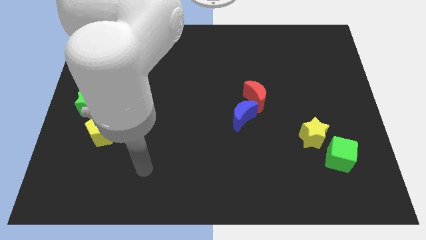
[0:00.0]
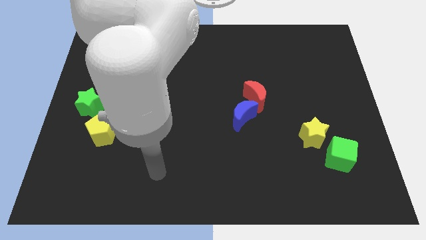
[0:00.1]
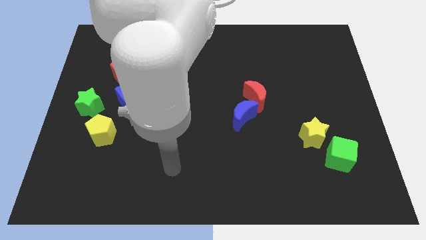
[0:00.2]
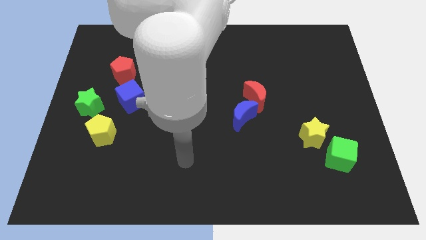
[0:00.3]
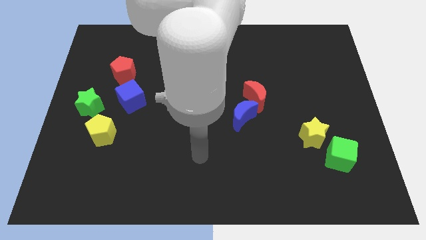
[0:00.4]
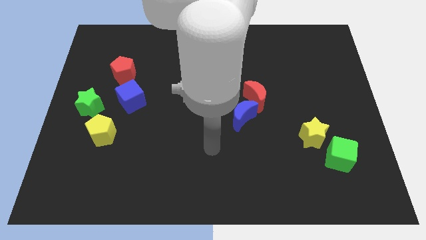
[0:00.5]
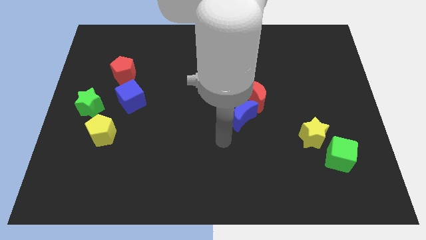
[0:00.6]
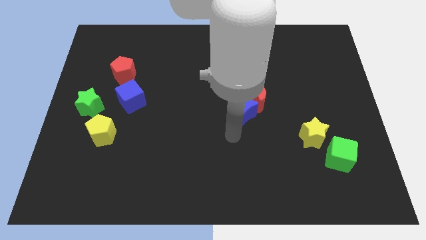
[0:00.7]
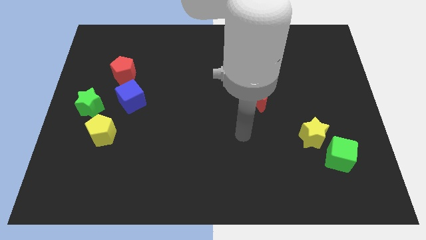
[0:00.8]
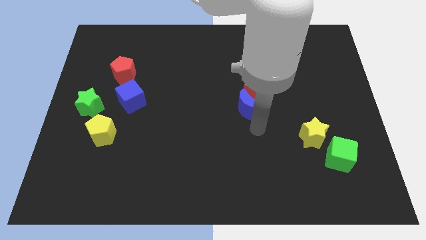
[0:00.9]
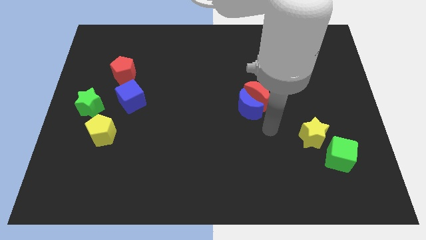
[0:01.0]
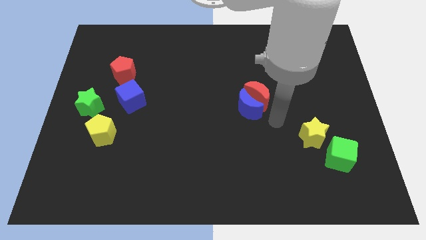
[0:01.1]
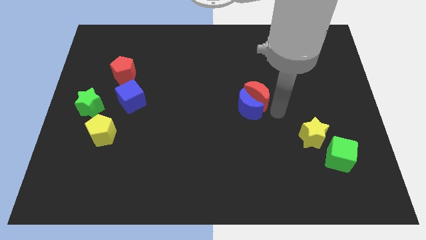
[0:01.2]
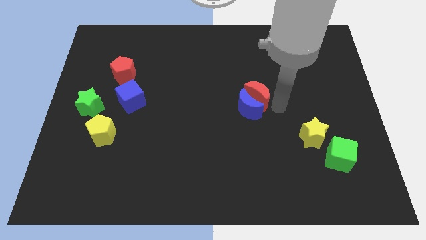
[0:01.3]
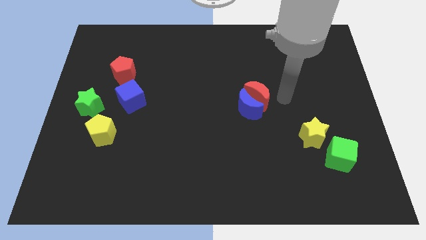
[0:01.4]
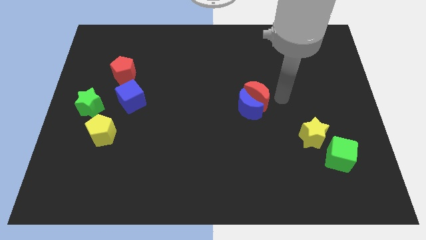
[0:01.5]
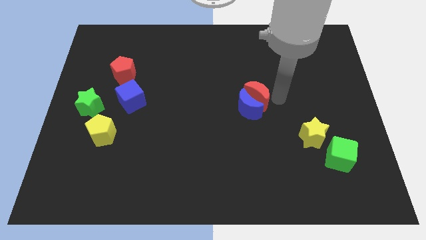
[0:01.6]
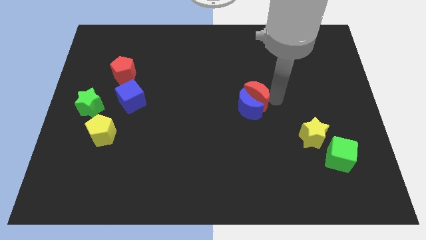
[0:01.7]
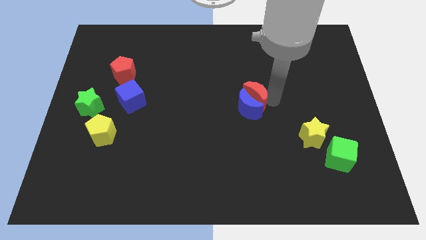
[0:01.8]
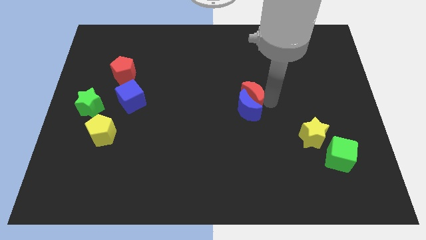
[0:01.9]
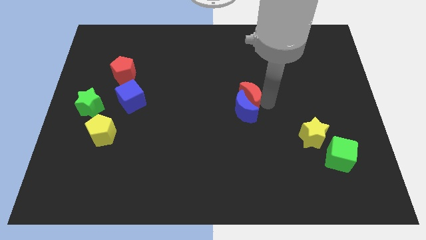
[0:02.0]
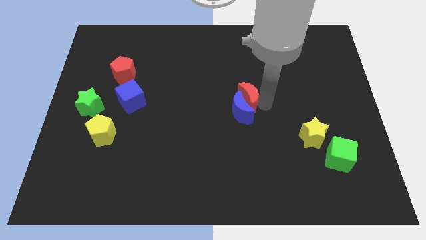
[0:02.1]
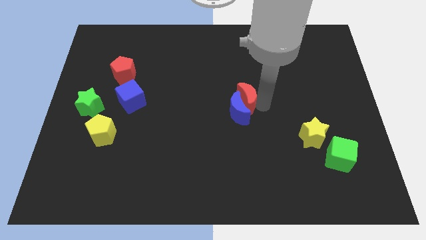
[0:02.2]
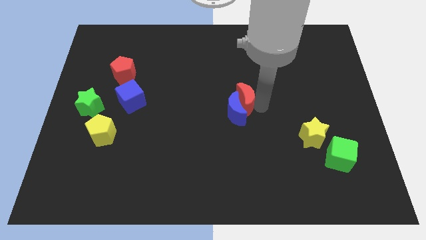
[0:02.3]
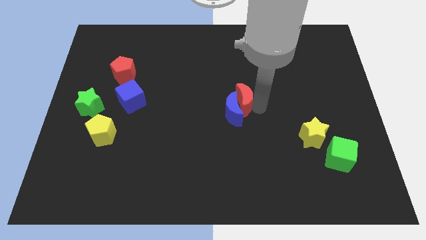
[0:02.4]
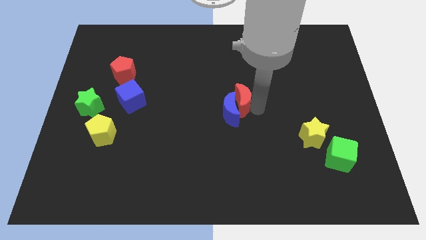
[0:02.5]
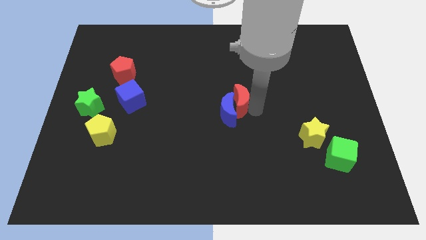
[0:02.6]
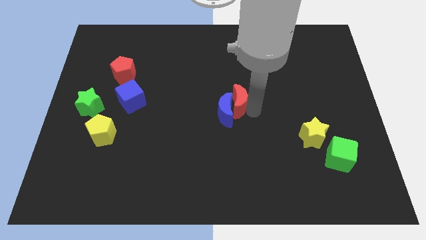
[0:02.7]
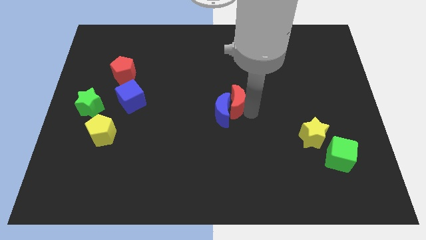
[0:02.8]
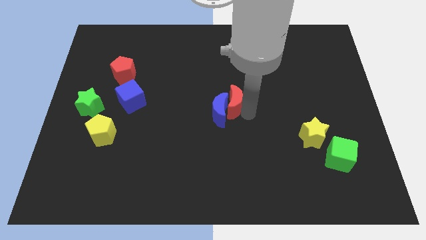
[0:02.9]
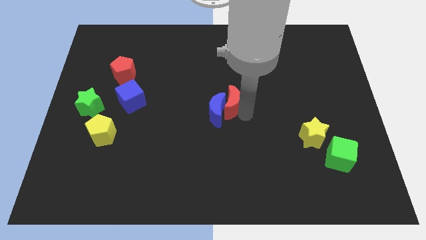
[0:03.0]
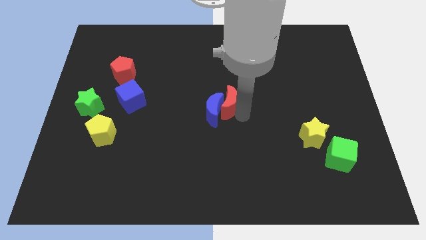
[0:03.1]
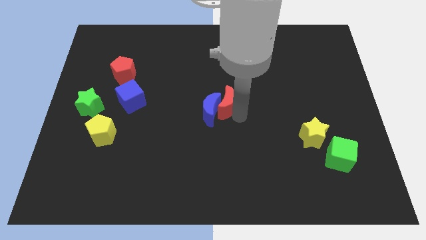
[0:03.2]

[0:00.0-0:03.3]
slide the red moon a little bit left

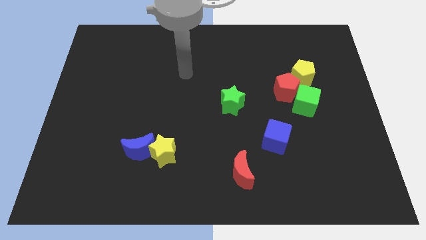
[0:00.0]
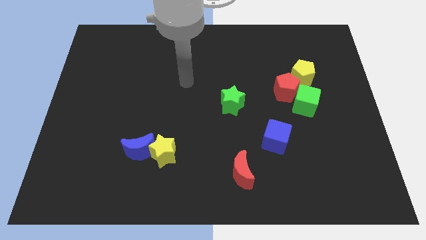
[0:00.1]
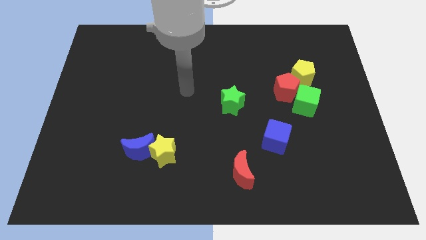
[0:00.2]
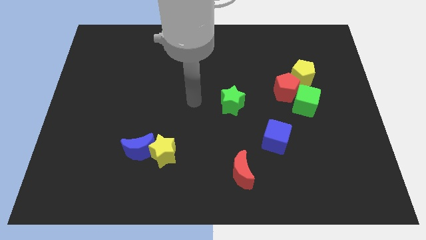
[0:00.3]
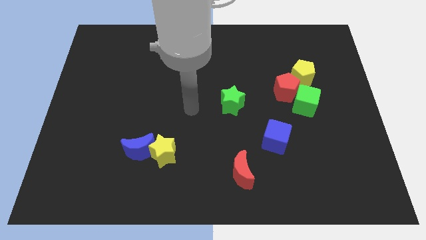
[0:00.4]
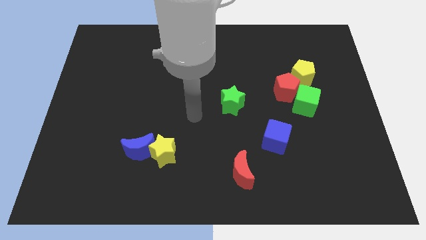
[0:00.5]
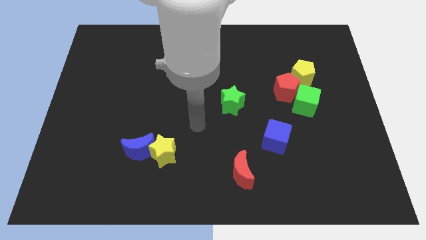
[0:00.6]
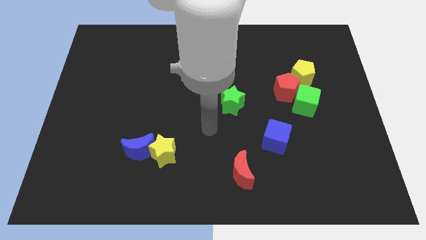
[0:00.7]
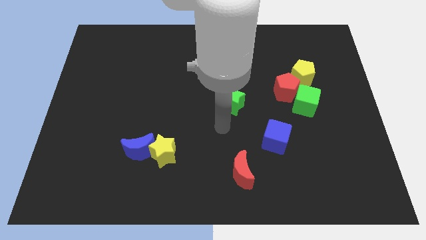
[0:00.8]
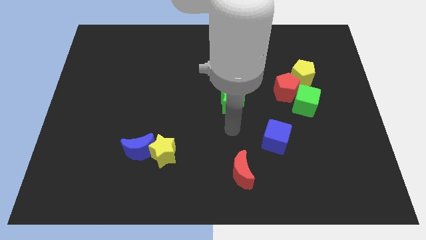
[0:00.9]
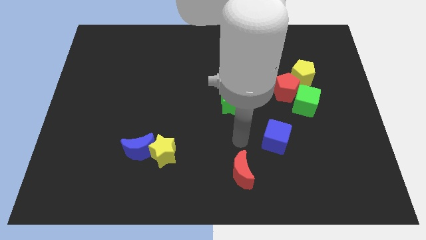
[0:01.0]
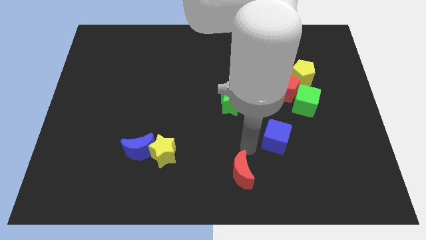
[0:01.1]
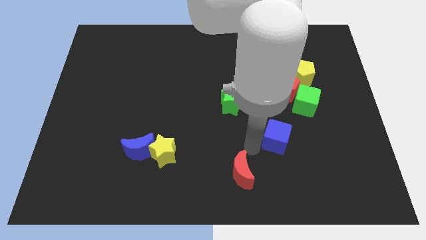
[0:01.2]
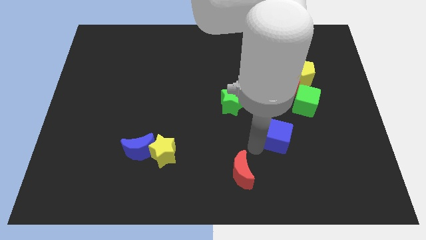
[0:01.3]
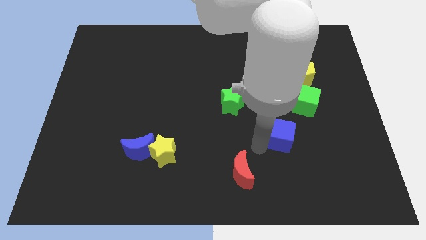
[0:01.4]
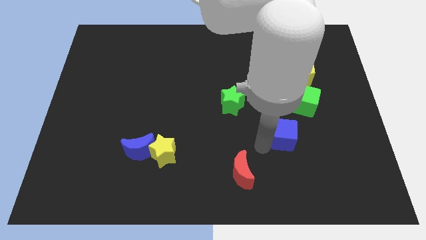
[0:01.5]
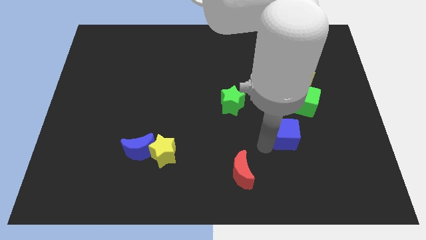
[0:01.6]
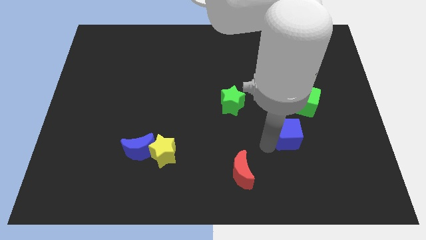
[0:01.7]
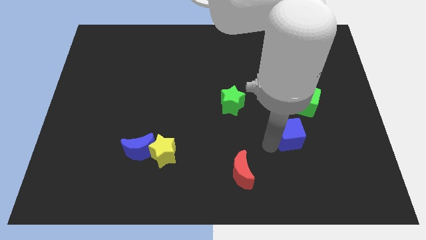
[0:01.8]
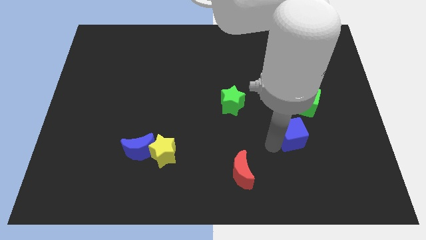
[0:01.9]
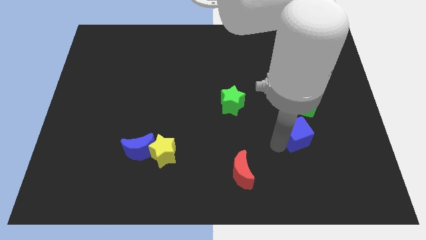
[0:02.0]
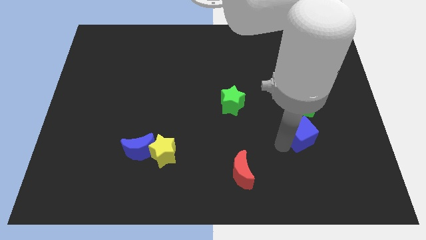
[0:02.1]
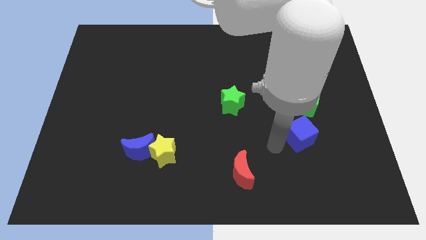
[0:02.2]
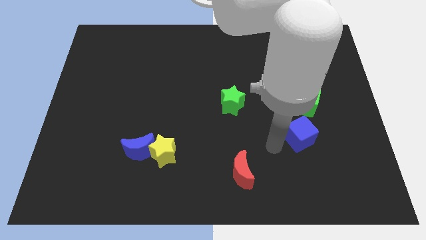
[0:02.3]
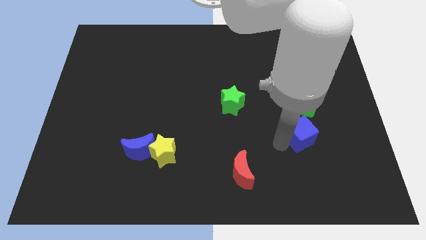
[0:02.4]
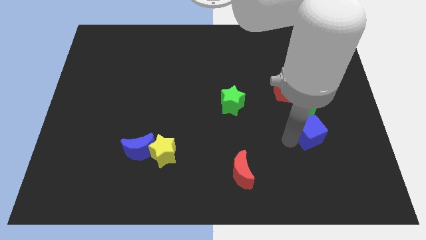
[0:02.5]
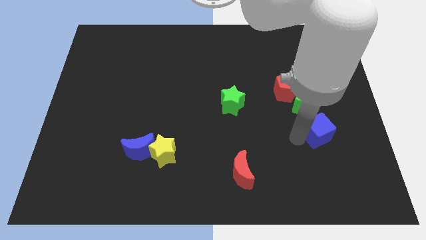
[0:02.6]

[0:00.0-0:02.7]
move the blue cube diagonally upwards and to the right somewhat

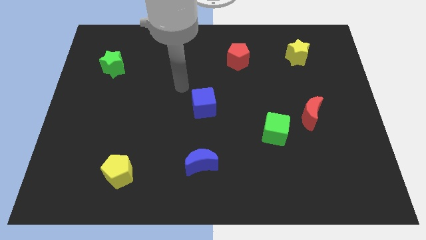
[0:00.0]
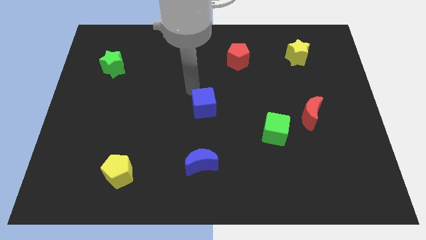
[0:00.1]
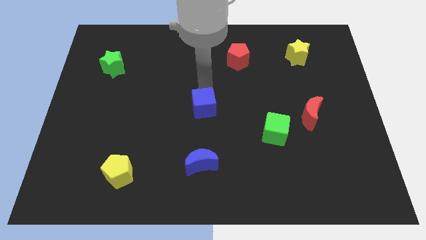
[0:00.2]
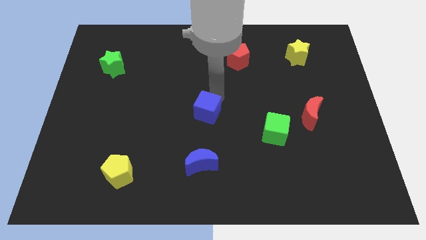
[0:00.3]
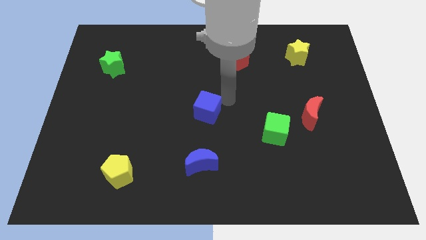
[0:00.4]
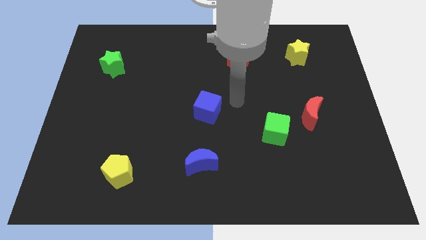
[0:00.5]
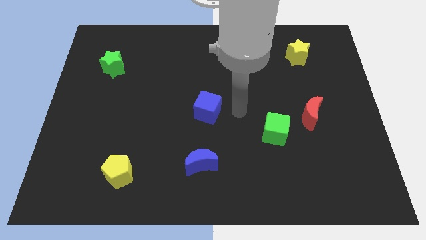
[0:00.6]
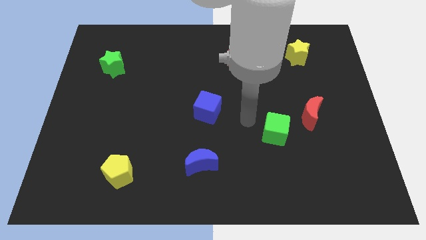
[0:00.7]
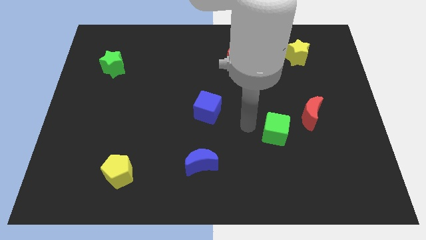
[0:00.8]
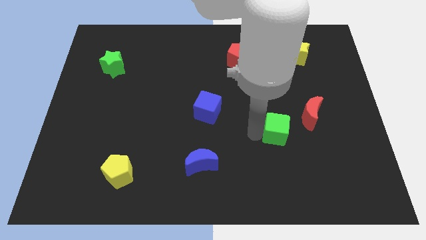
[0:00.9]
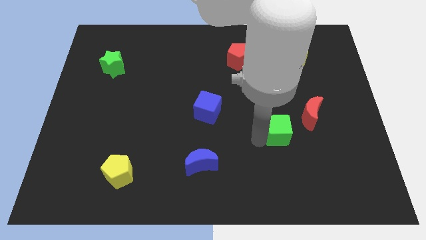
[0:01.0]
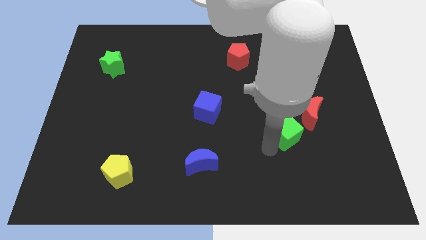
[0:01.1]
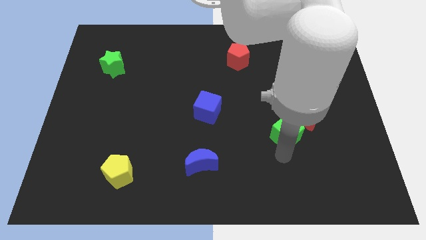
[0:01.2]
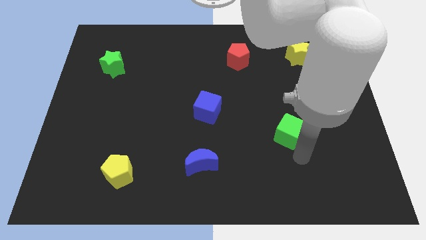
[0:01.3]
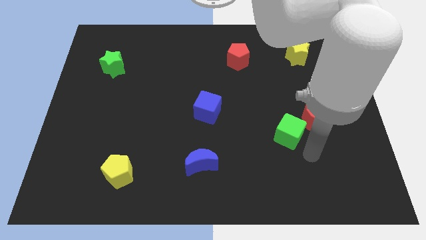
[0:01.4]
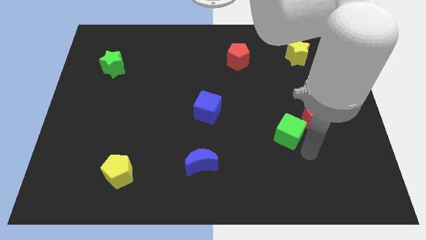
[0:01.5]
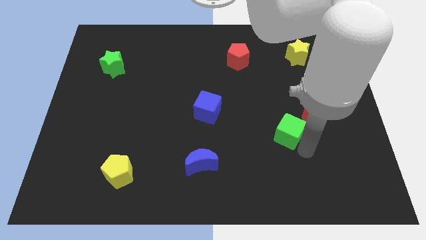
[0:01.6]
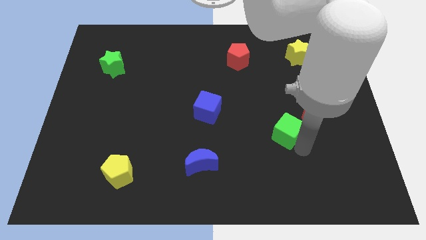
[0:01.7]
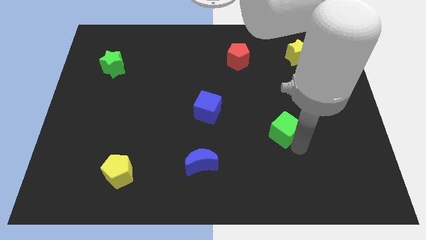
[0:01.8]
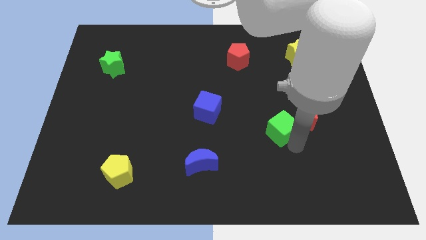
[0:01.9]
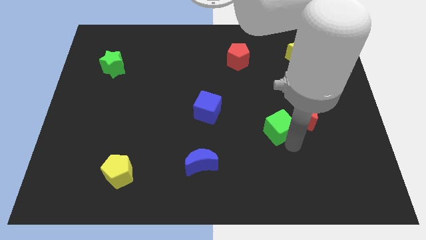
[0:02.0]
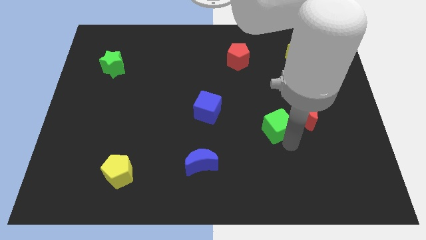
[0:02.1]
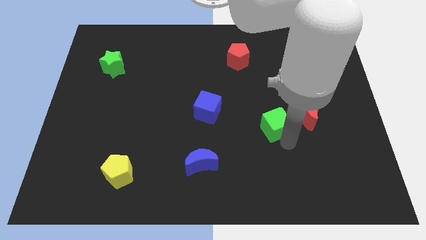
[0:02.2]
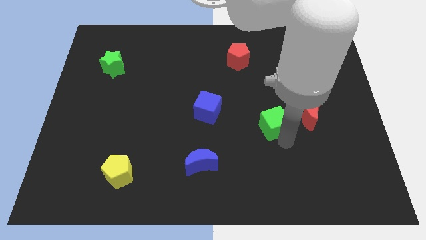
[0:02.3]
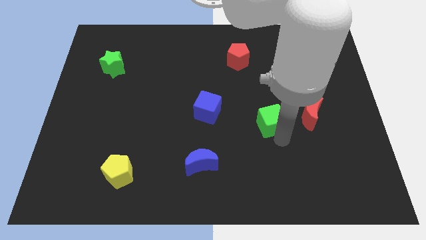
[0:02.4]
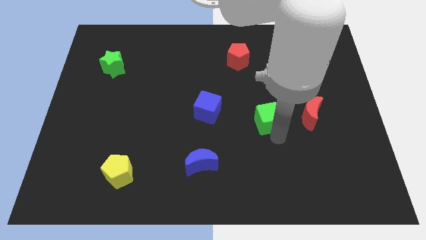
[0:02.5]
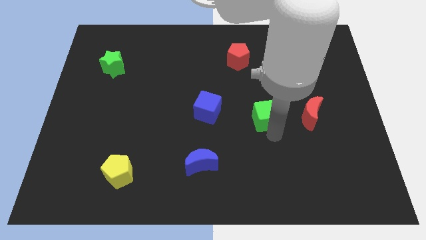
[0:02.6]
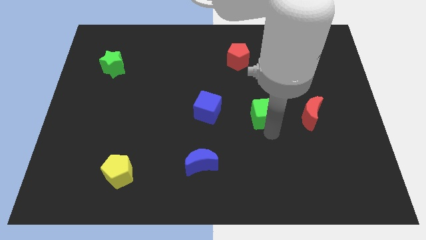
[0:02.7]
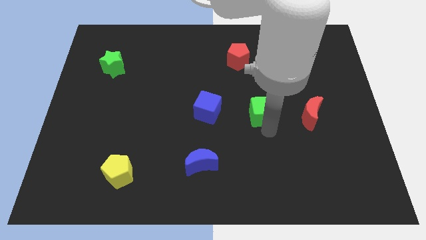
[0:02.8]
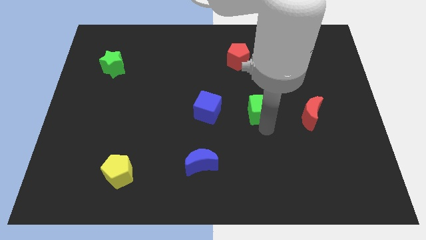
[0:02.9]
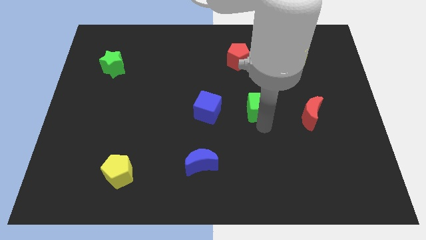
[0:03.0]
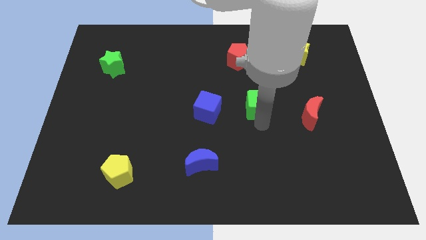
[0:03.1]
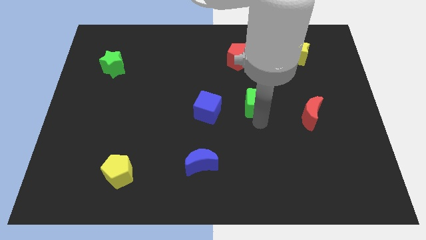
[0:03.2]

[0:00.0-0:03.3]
push the green cube slightly upwards
